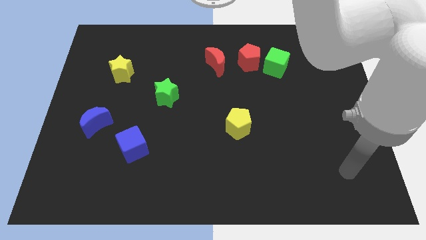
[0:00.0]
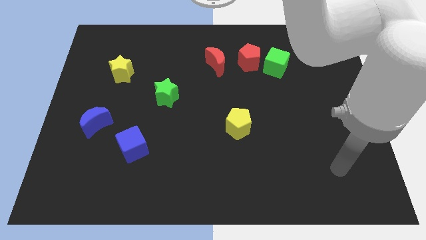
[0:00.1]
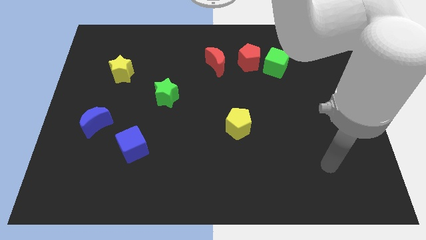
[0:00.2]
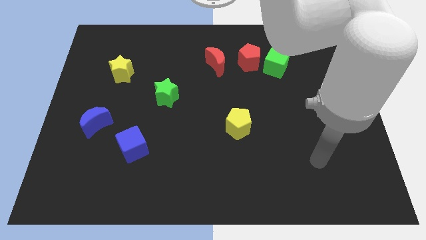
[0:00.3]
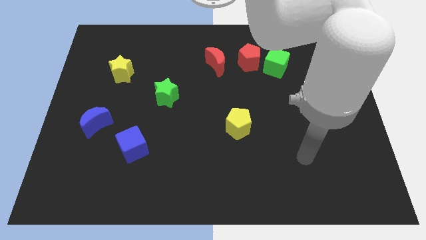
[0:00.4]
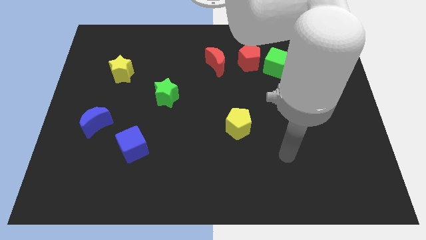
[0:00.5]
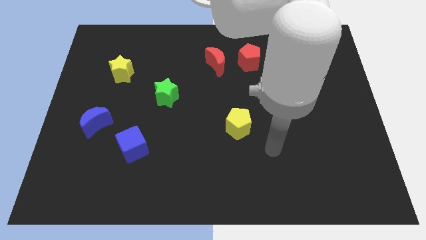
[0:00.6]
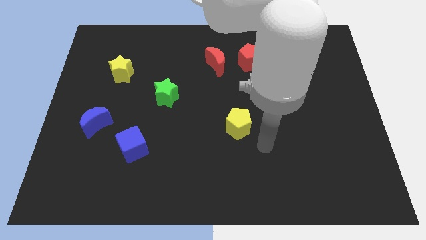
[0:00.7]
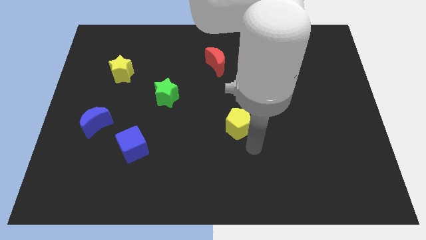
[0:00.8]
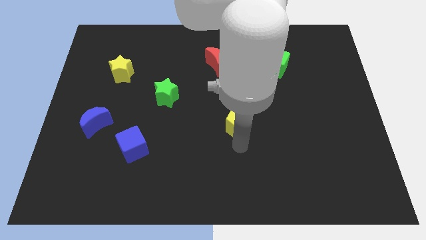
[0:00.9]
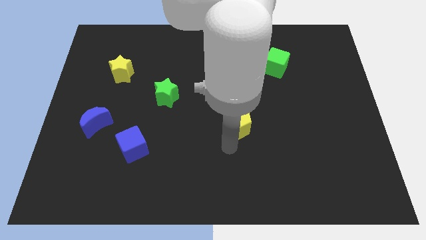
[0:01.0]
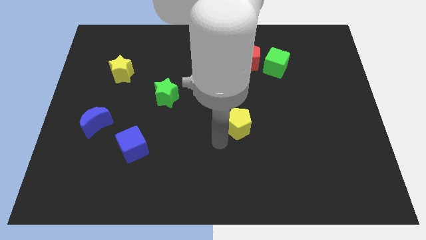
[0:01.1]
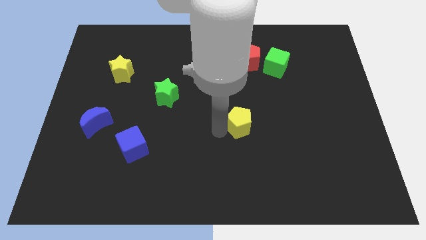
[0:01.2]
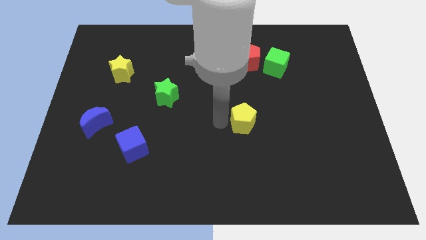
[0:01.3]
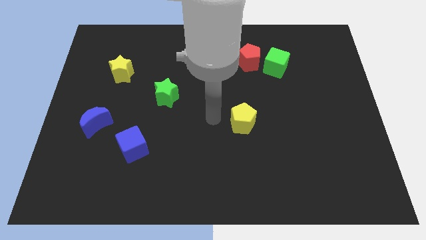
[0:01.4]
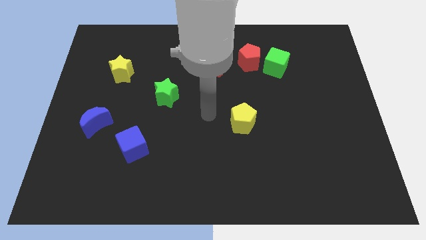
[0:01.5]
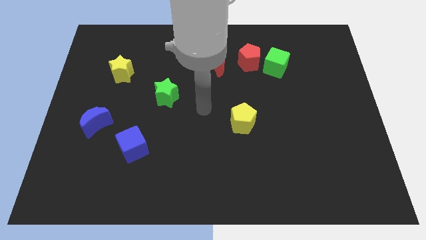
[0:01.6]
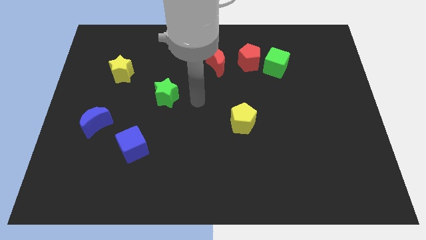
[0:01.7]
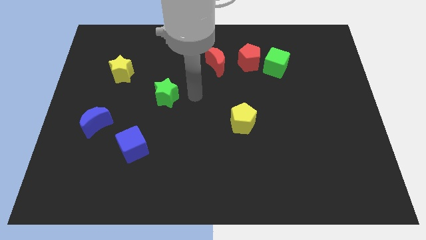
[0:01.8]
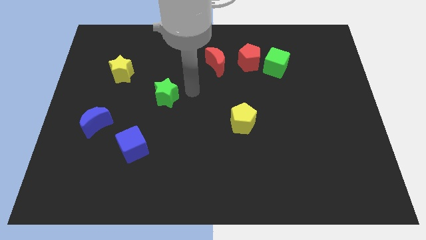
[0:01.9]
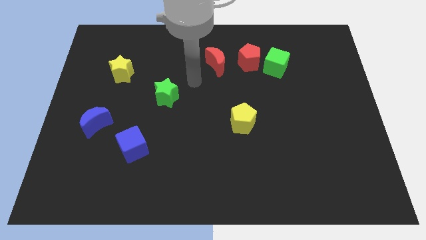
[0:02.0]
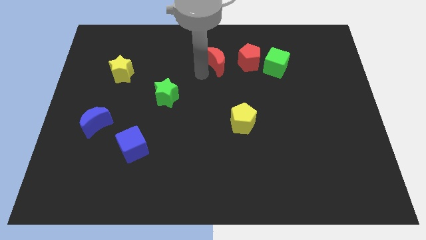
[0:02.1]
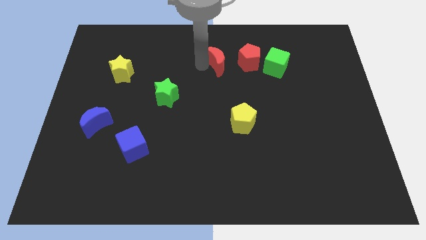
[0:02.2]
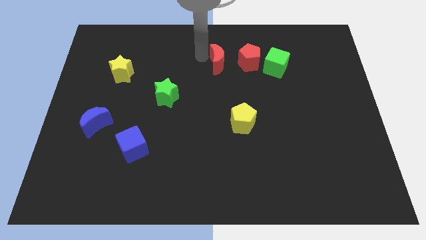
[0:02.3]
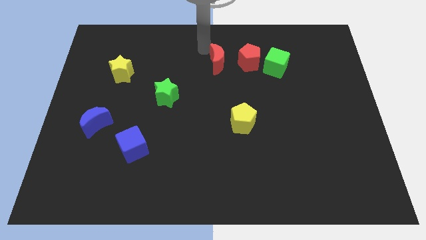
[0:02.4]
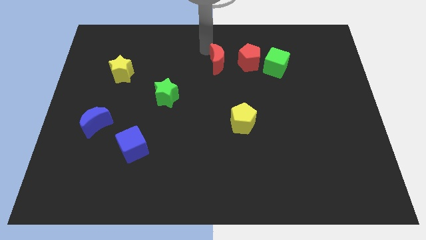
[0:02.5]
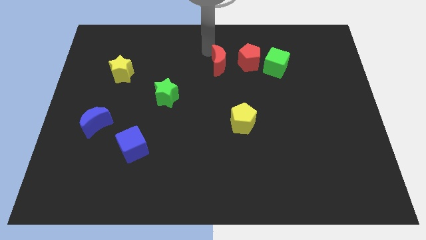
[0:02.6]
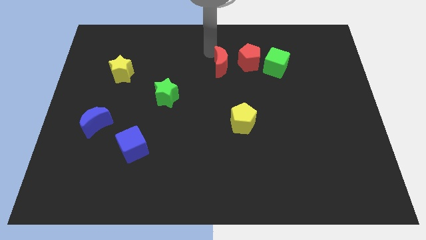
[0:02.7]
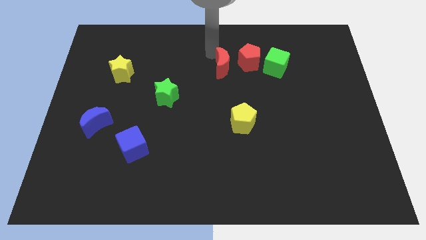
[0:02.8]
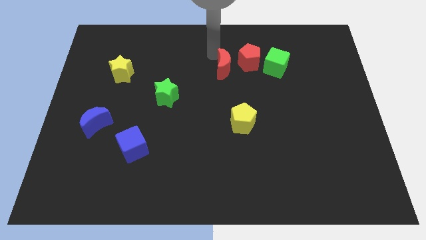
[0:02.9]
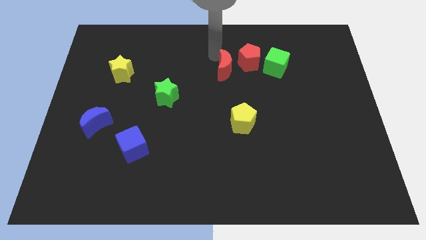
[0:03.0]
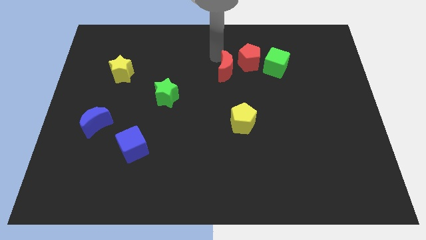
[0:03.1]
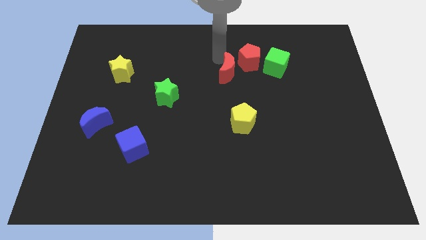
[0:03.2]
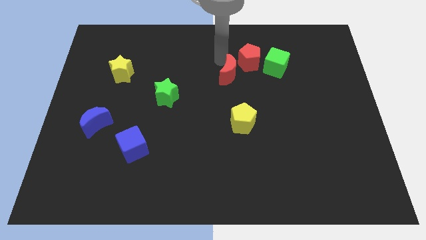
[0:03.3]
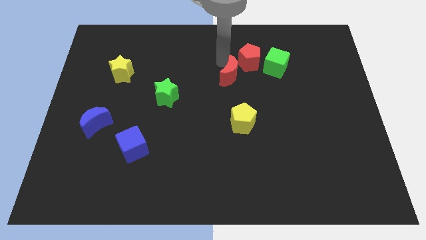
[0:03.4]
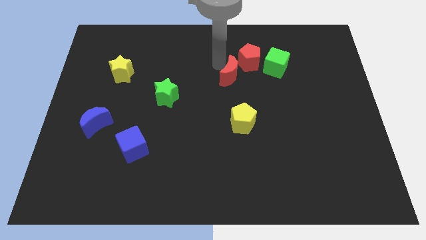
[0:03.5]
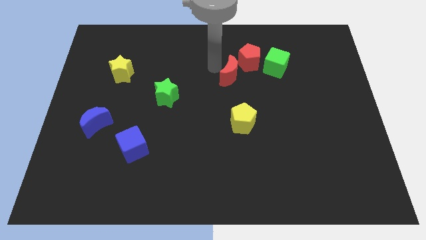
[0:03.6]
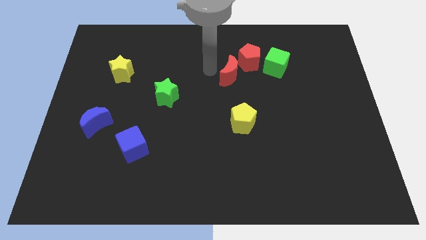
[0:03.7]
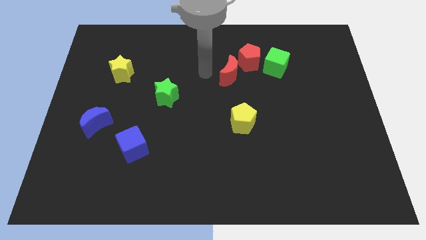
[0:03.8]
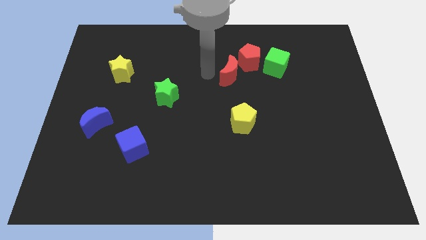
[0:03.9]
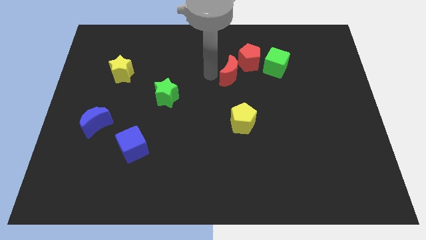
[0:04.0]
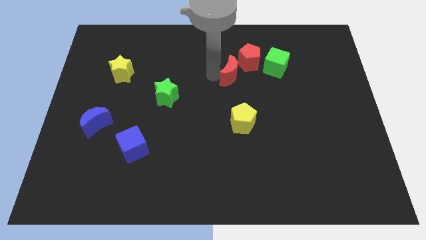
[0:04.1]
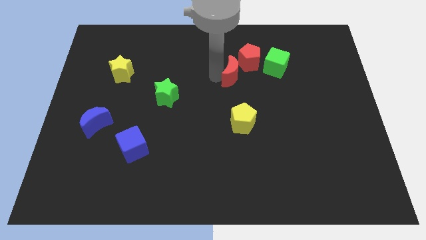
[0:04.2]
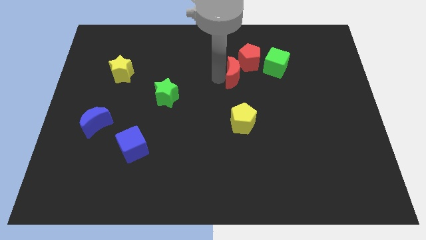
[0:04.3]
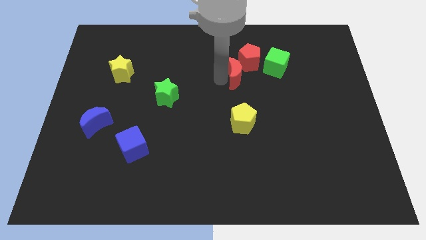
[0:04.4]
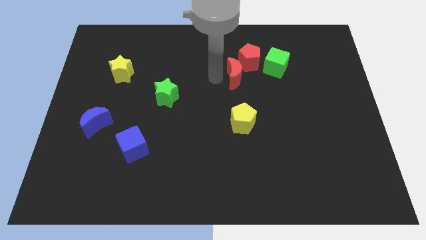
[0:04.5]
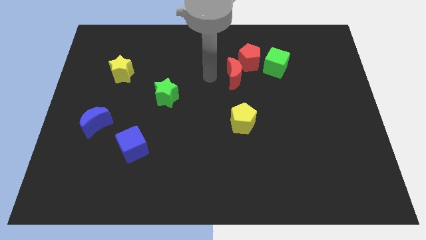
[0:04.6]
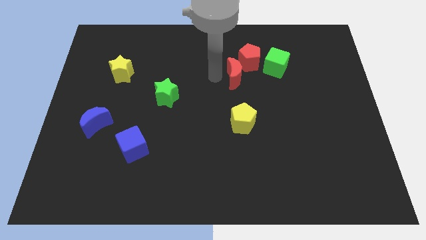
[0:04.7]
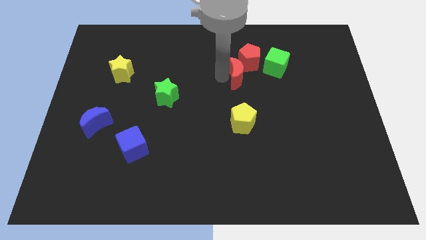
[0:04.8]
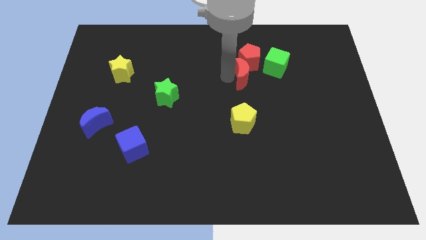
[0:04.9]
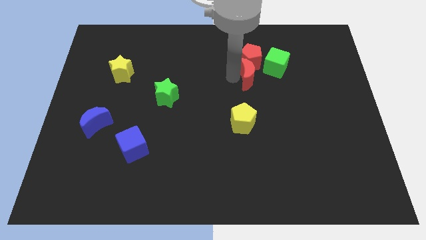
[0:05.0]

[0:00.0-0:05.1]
push the red moon diagonally down and to the right of the red pentagon

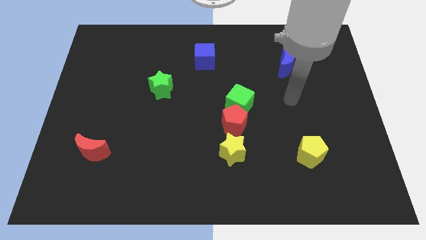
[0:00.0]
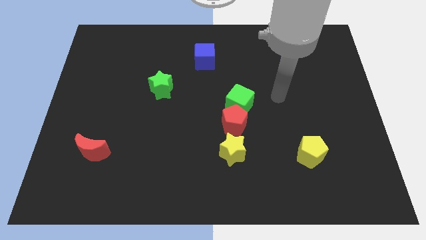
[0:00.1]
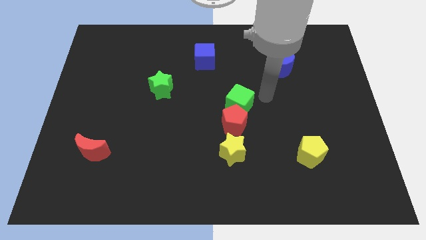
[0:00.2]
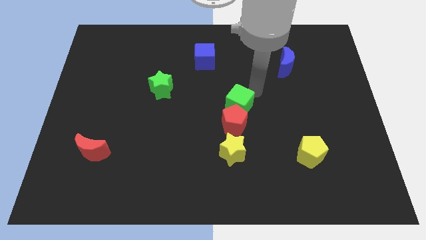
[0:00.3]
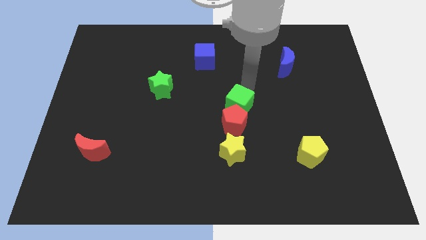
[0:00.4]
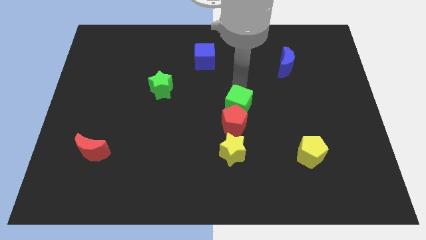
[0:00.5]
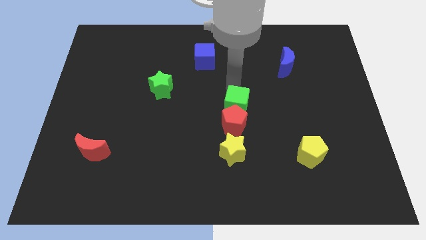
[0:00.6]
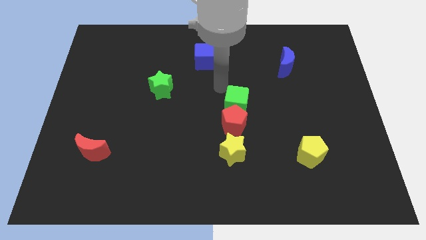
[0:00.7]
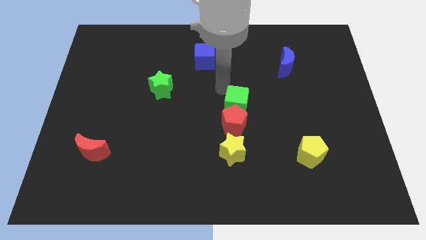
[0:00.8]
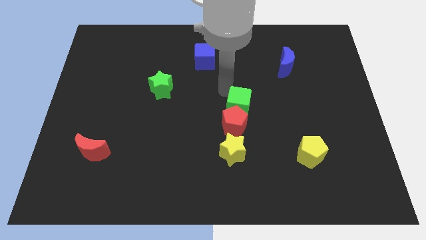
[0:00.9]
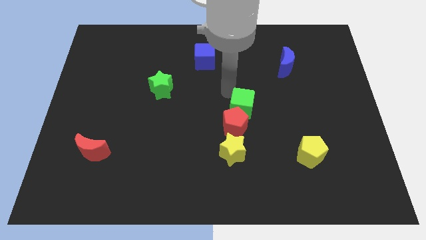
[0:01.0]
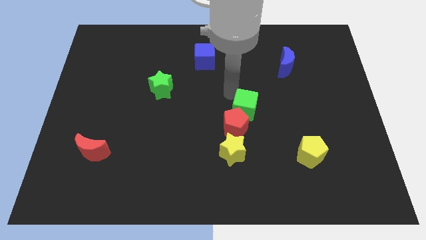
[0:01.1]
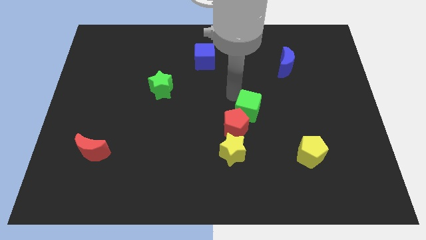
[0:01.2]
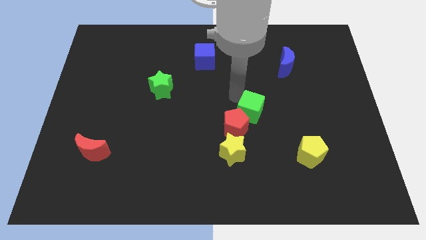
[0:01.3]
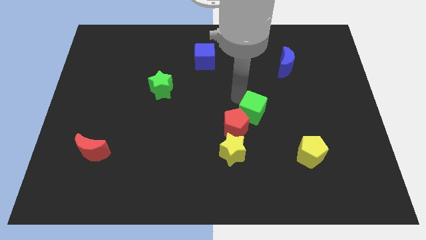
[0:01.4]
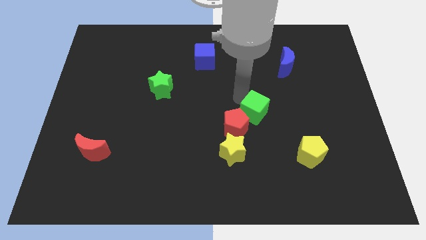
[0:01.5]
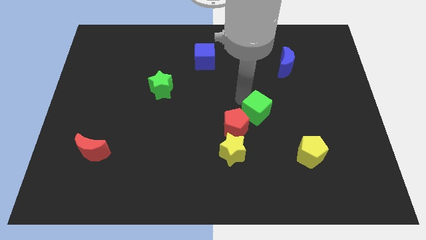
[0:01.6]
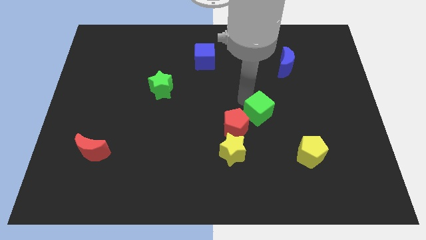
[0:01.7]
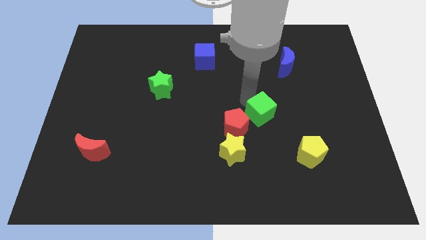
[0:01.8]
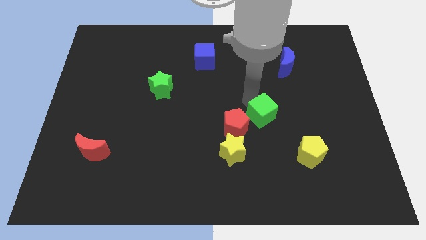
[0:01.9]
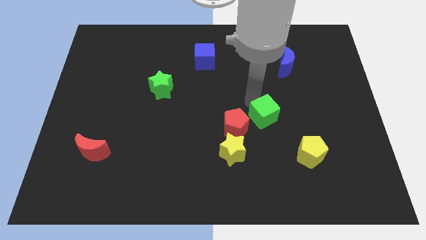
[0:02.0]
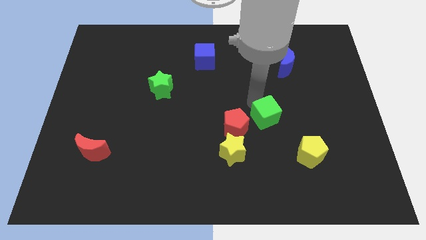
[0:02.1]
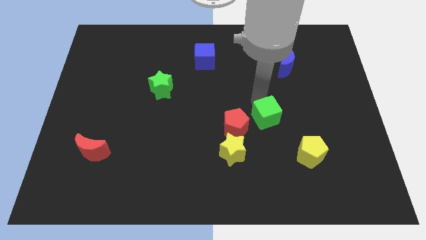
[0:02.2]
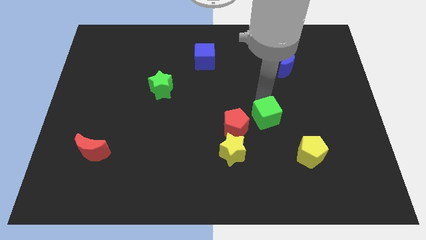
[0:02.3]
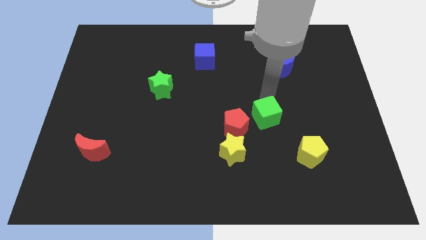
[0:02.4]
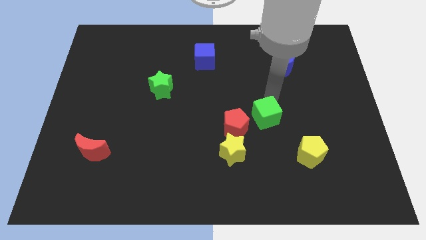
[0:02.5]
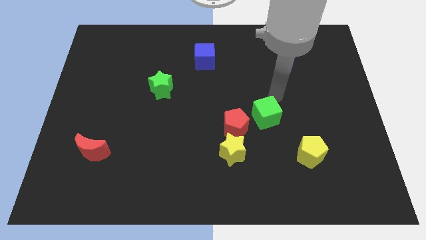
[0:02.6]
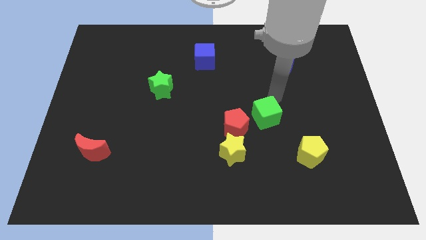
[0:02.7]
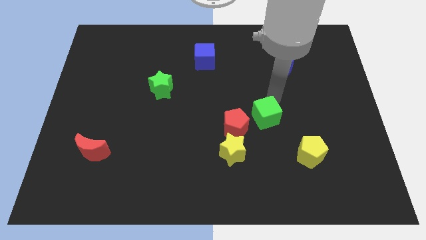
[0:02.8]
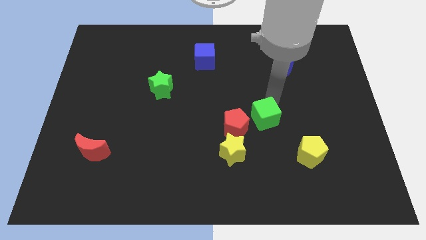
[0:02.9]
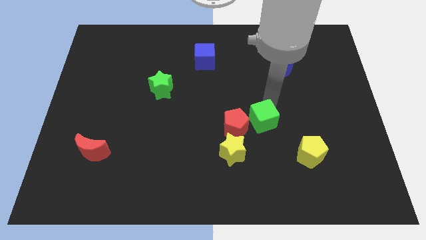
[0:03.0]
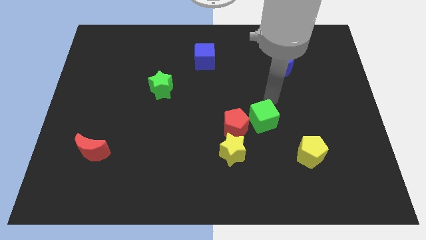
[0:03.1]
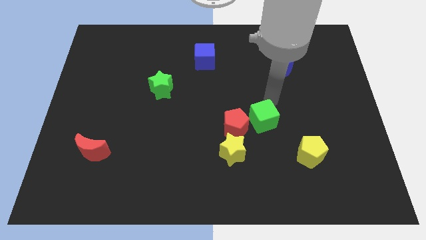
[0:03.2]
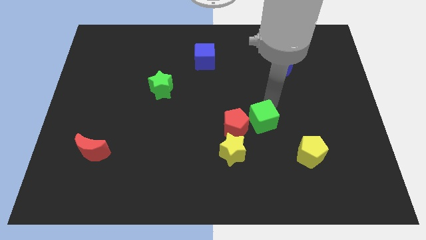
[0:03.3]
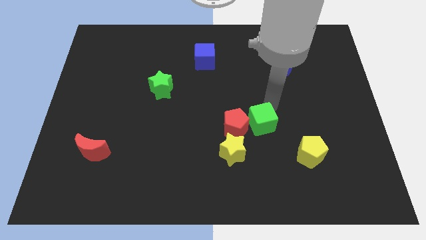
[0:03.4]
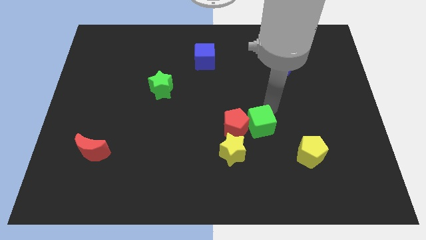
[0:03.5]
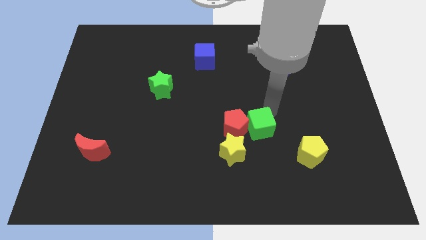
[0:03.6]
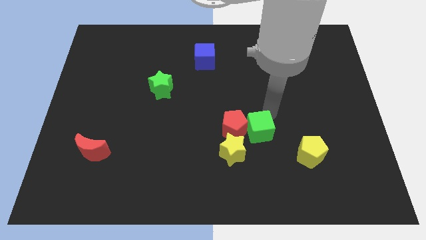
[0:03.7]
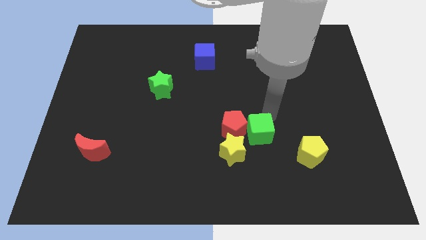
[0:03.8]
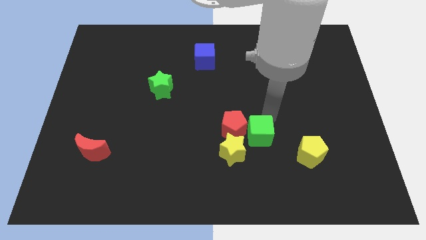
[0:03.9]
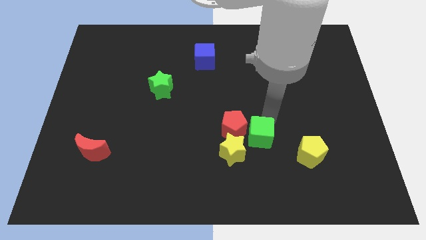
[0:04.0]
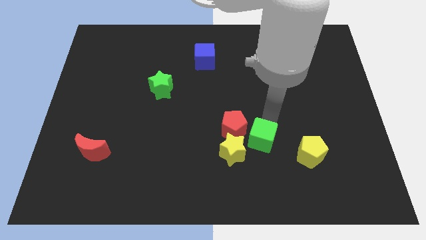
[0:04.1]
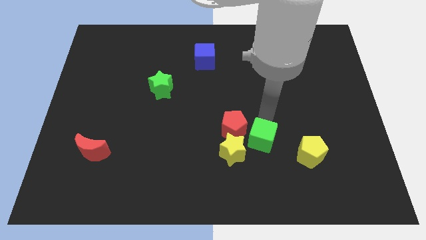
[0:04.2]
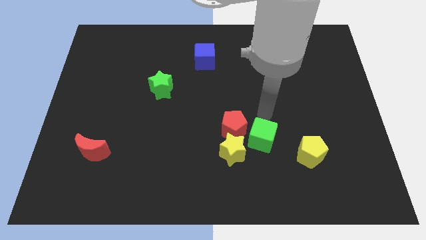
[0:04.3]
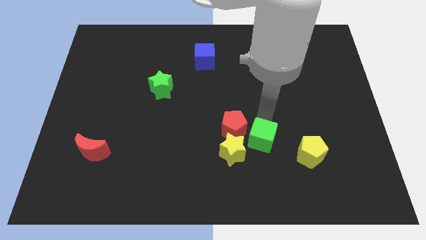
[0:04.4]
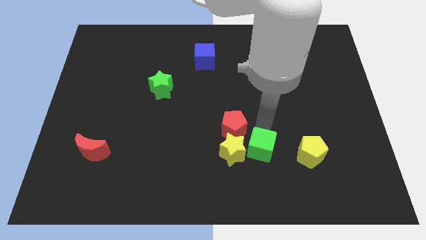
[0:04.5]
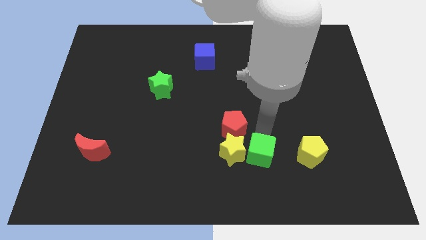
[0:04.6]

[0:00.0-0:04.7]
put the green cube diagonally down and to the right of the yellow star
